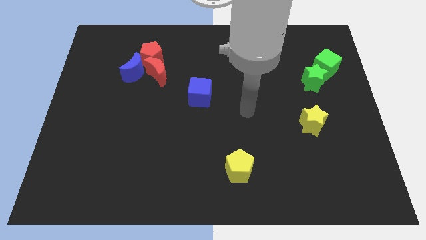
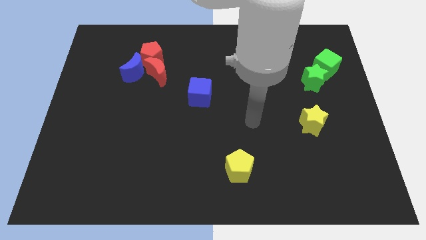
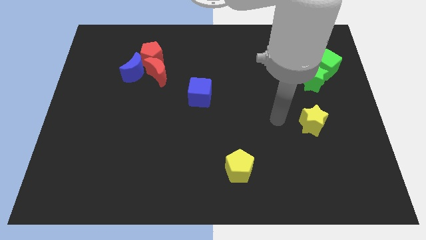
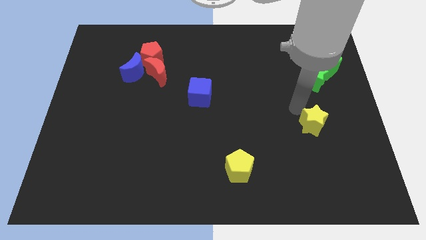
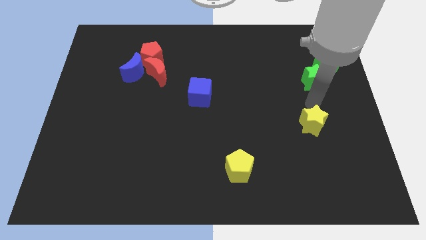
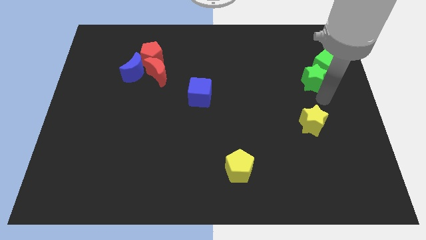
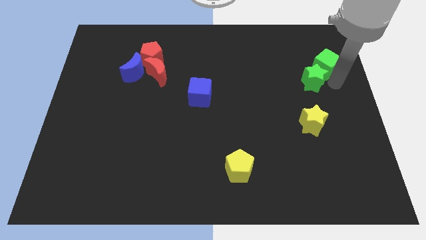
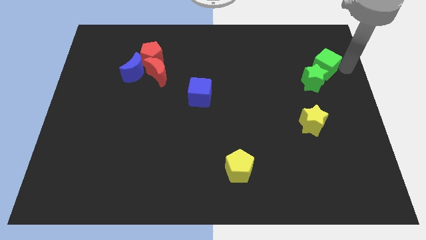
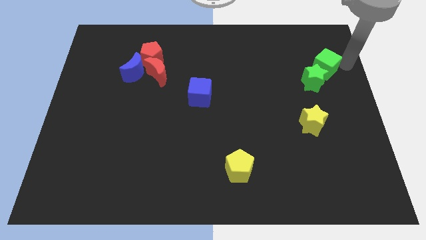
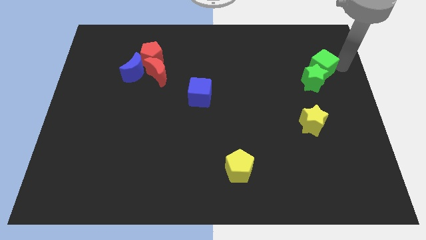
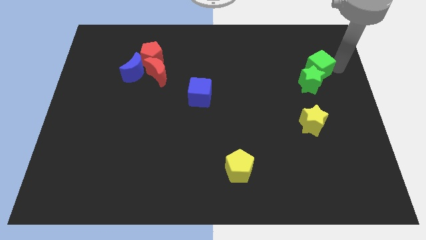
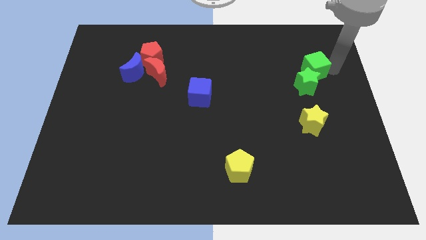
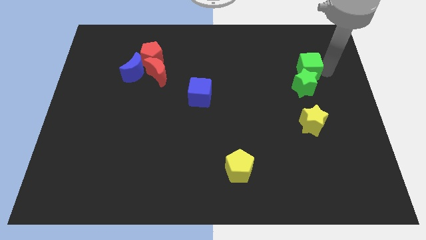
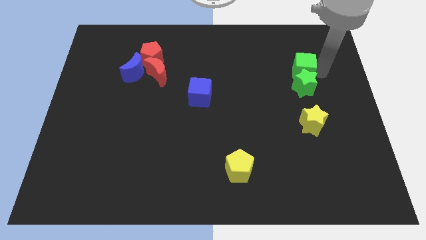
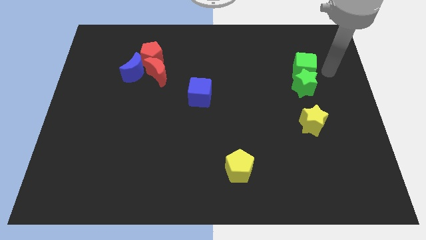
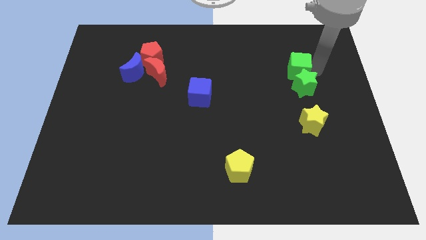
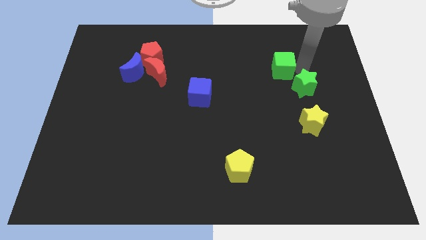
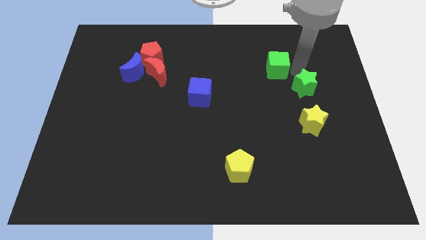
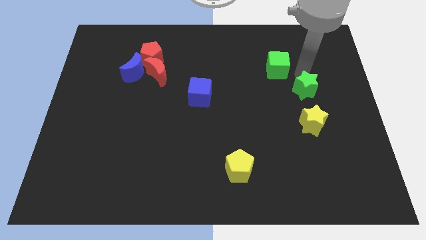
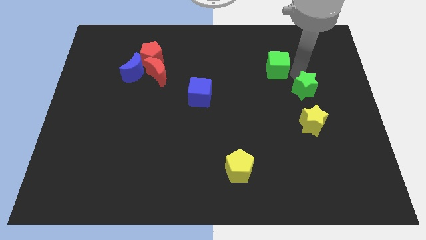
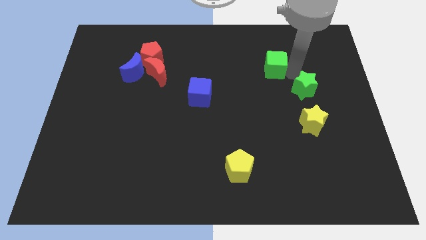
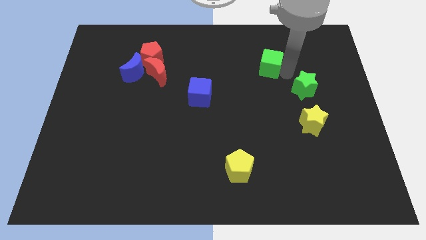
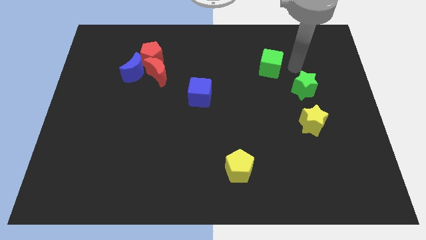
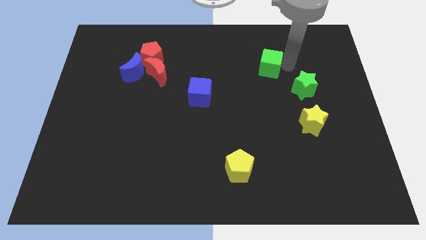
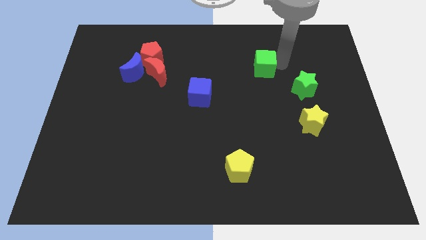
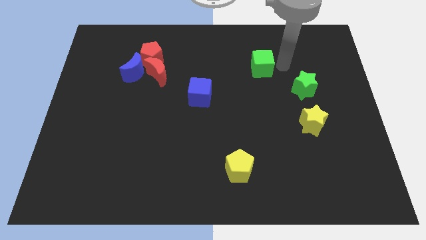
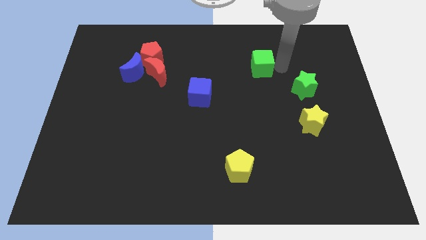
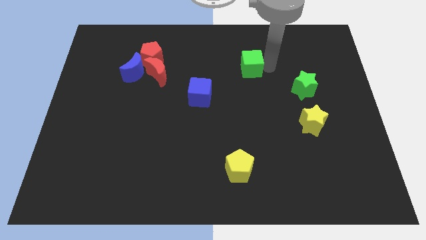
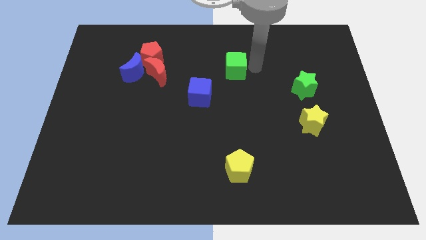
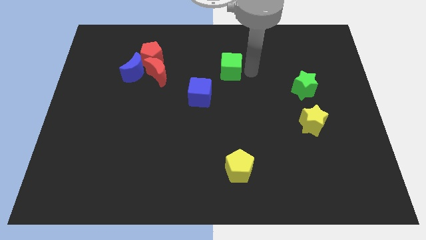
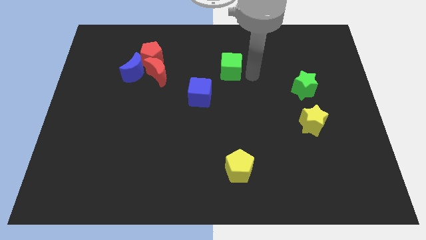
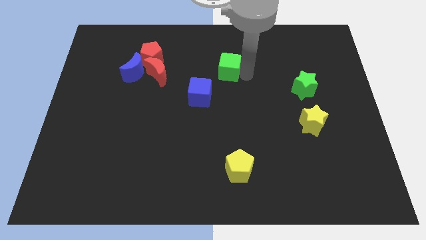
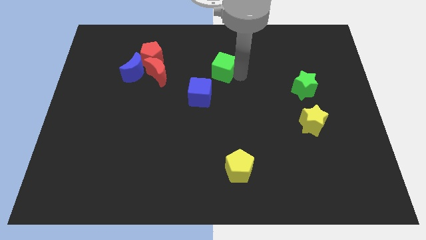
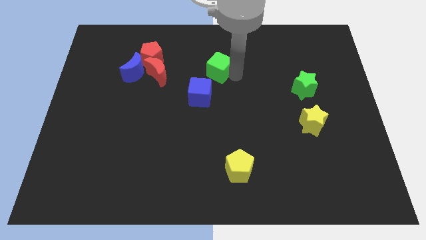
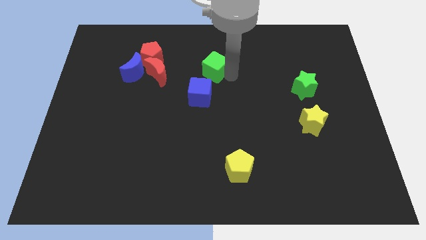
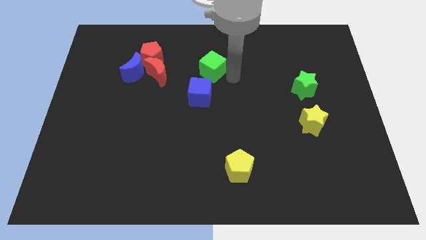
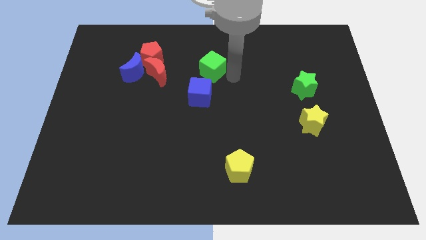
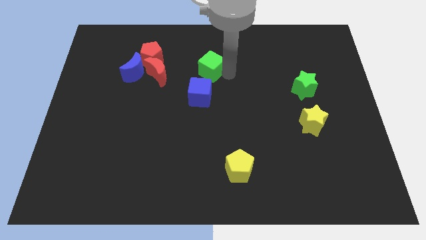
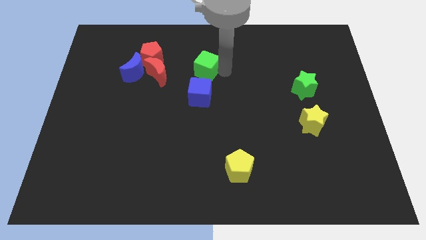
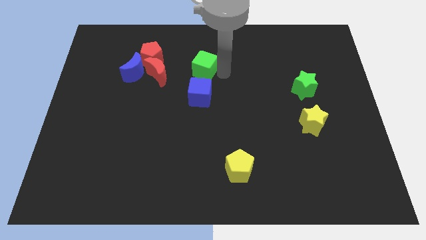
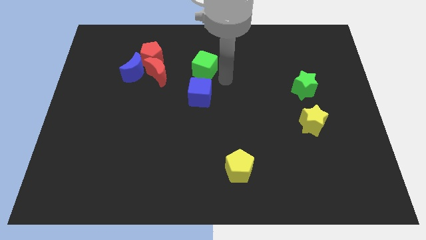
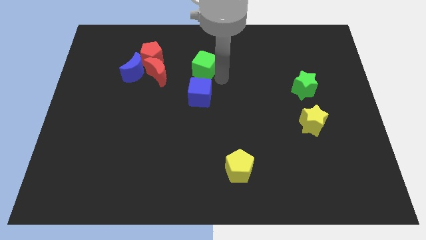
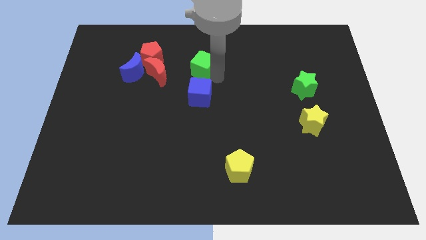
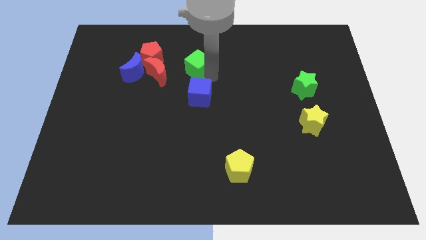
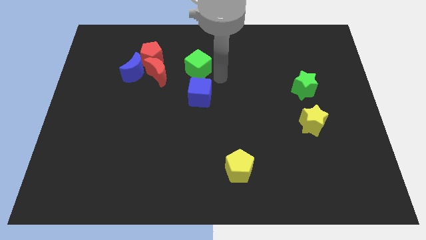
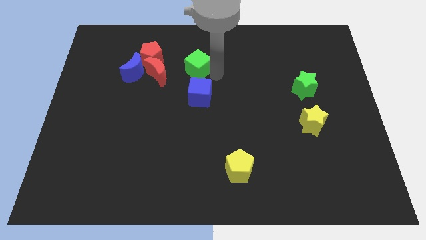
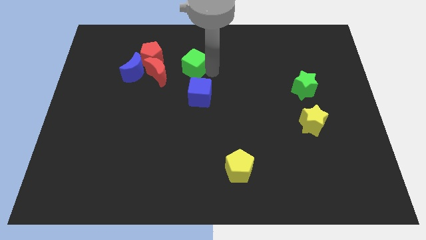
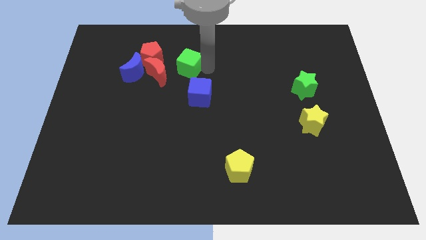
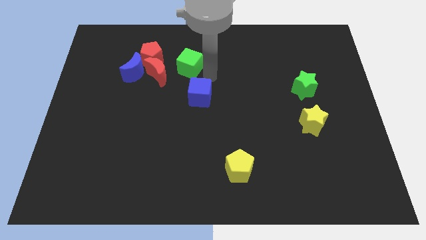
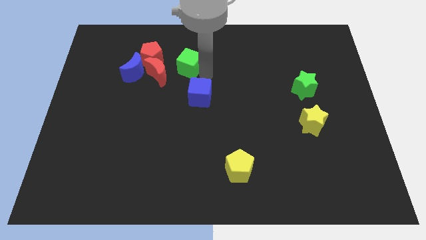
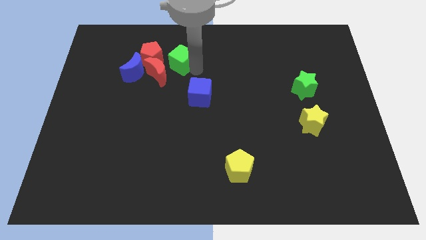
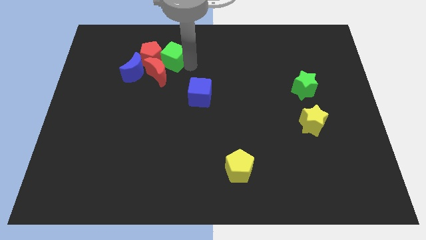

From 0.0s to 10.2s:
slide the green cube towards the red pentagon

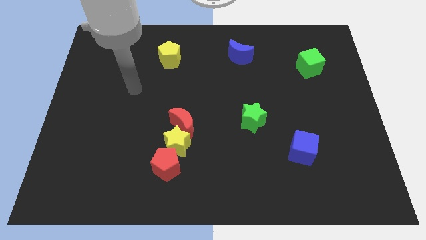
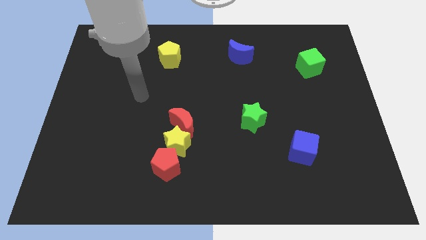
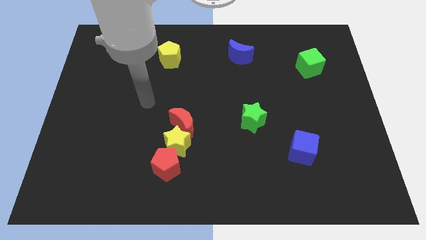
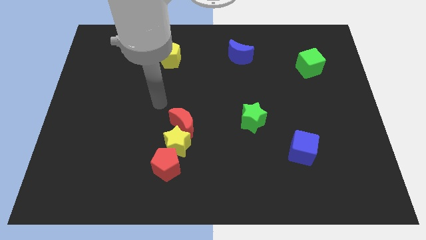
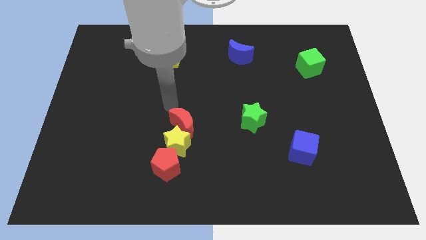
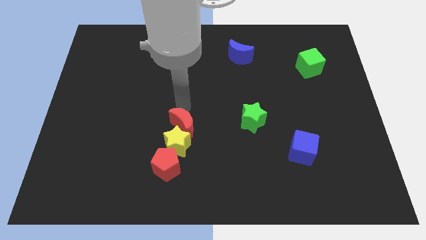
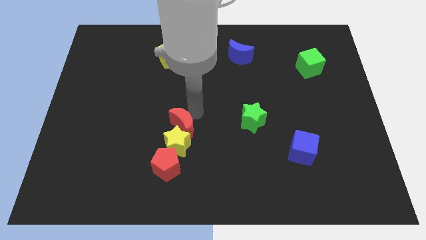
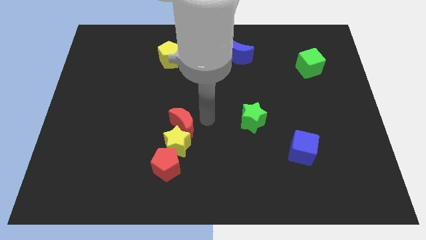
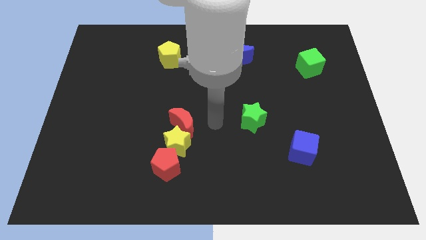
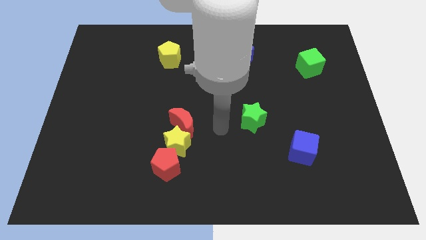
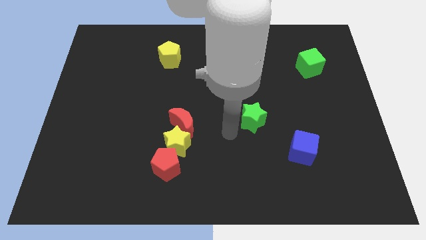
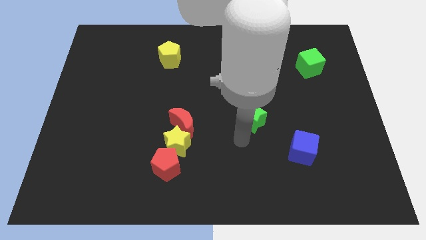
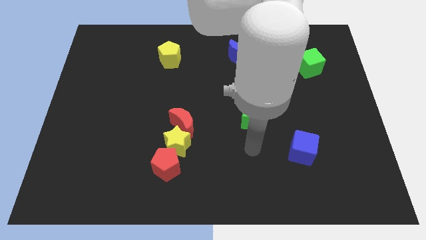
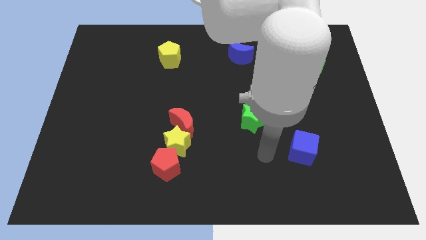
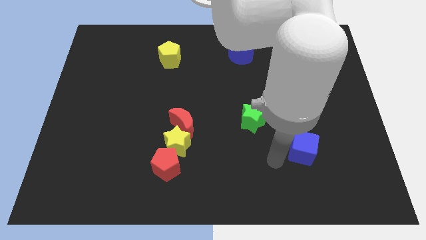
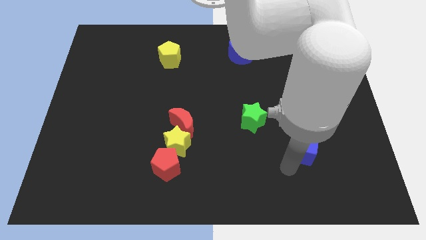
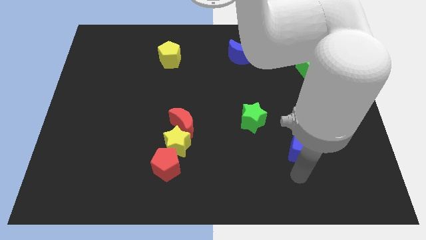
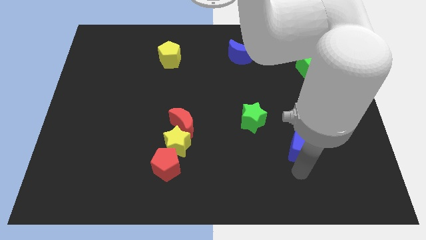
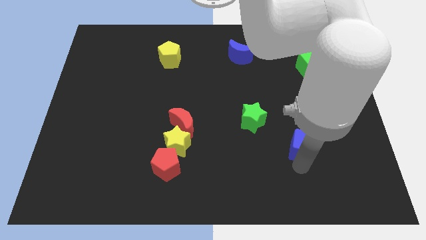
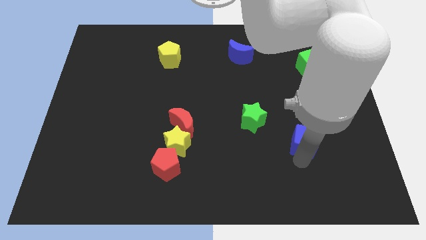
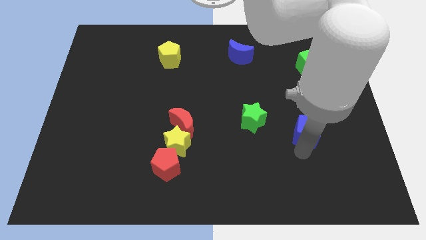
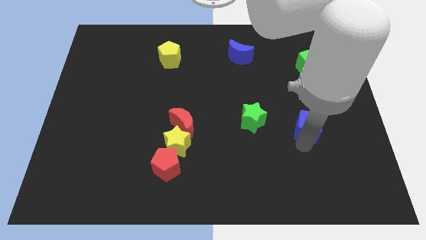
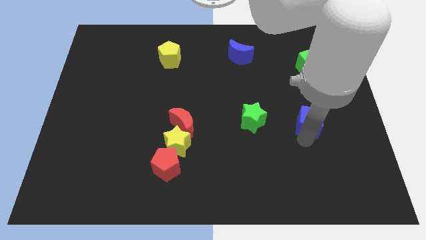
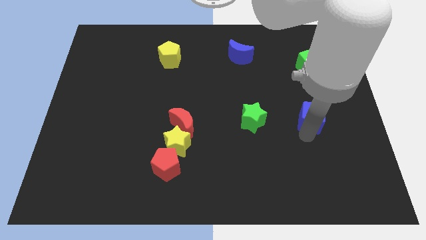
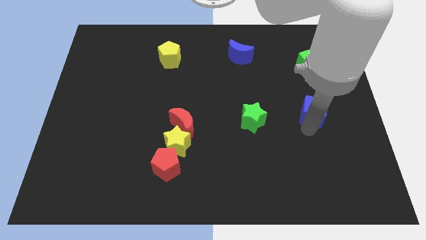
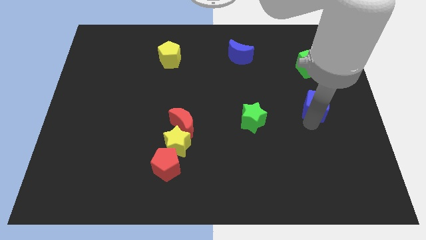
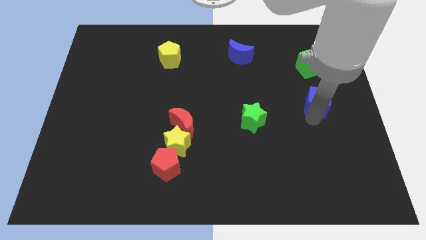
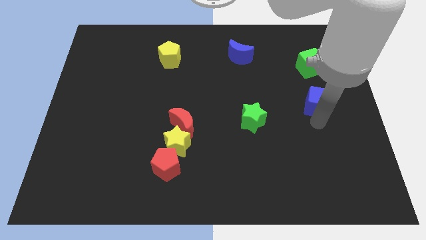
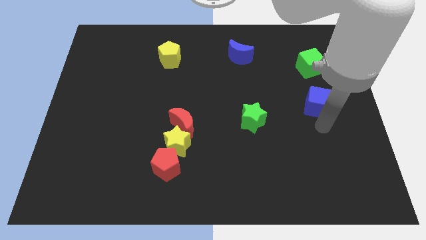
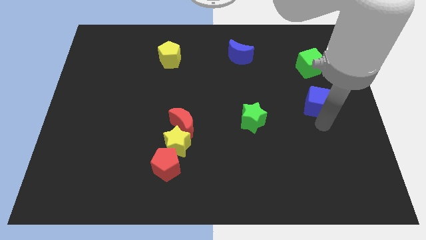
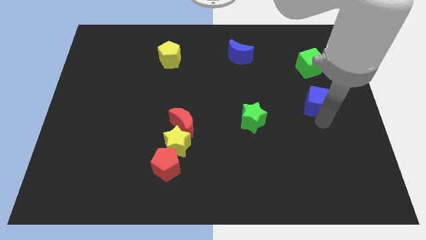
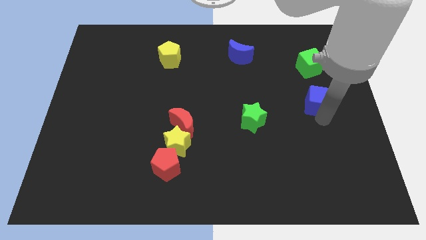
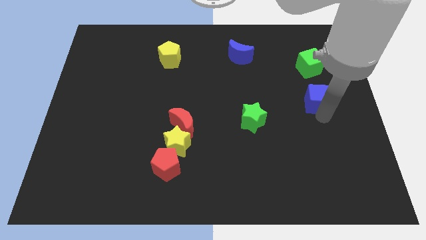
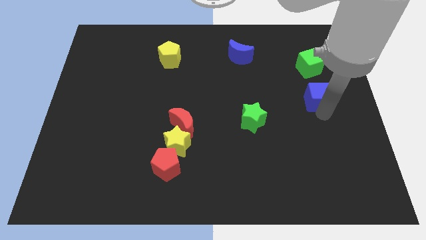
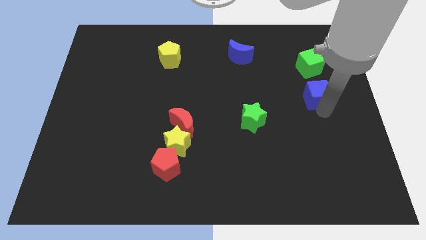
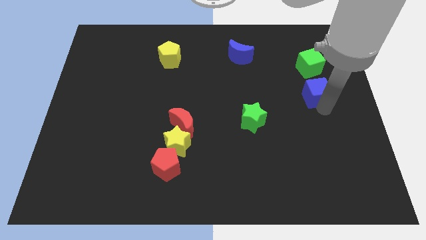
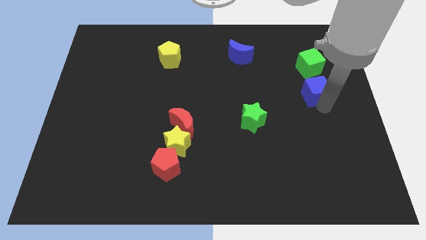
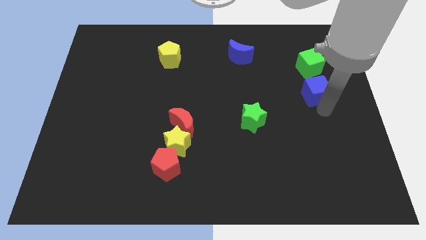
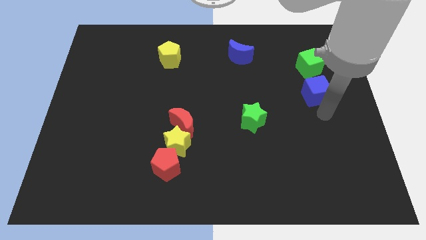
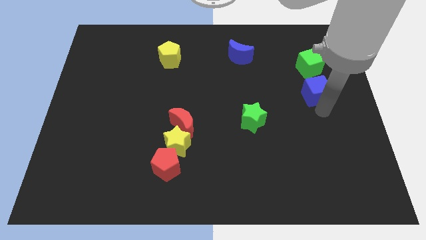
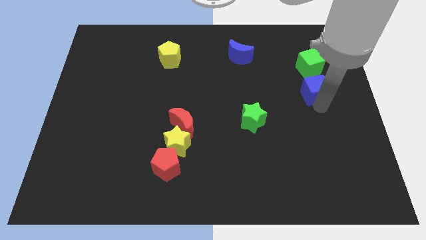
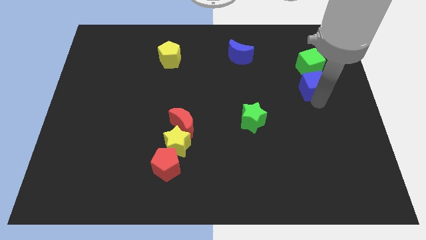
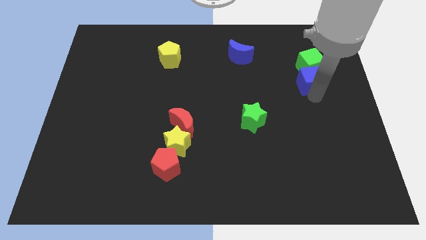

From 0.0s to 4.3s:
put the blue cube close to the green cube
